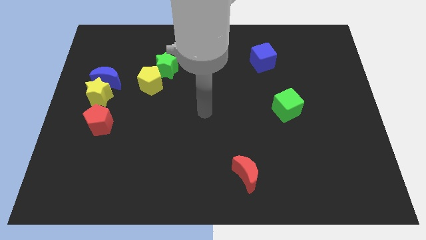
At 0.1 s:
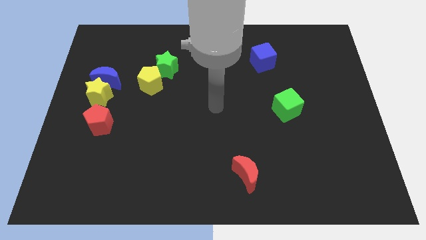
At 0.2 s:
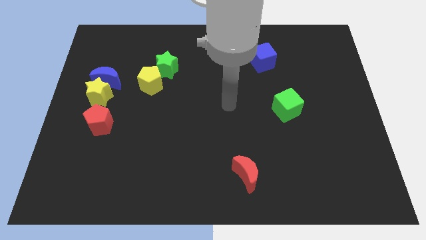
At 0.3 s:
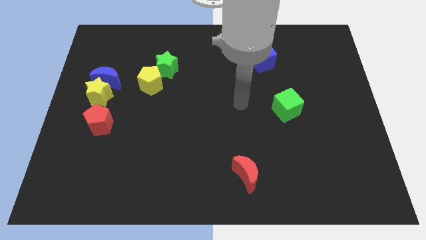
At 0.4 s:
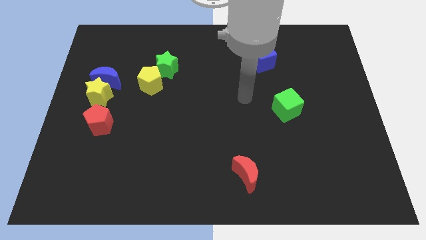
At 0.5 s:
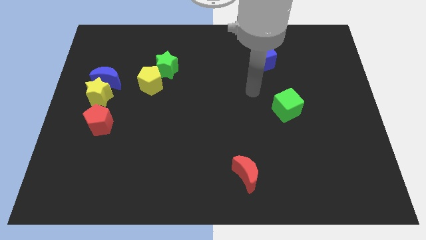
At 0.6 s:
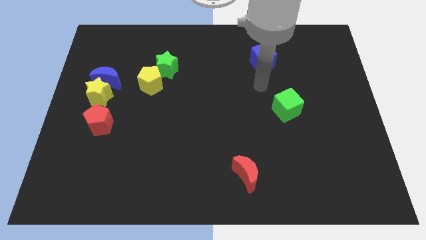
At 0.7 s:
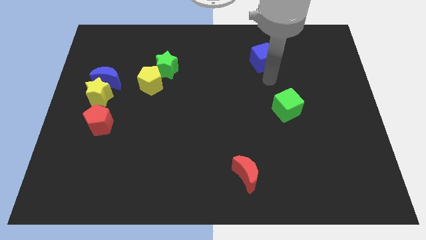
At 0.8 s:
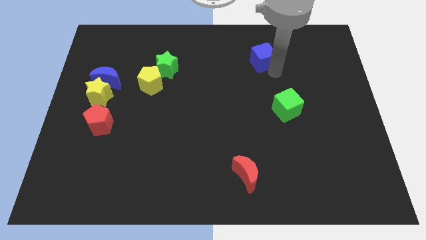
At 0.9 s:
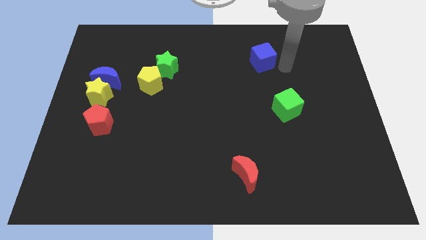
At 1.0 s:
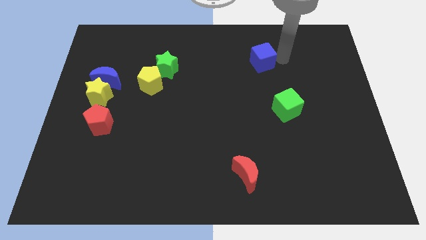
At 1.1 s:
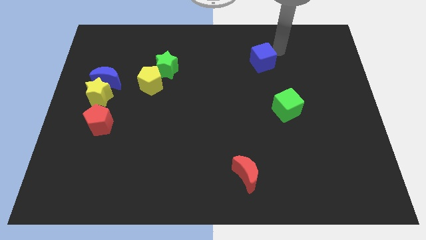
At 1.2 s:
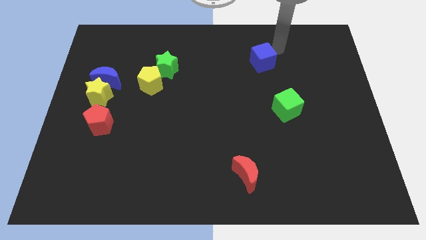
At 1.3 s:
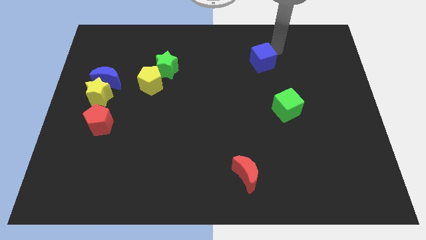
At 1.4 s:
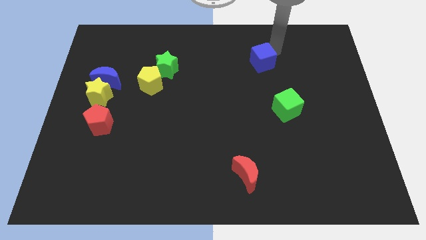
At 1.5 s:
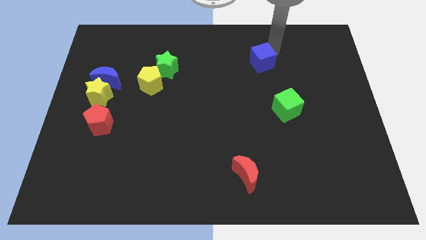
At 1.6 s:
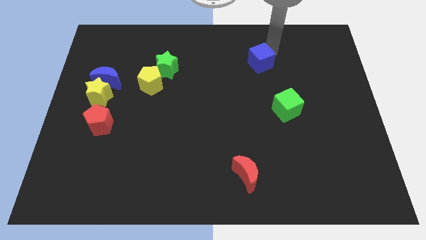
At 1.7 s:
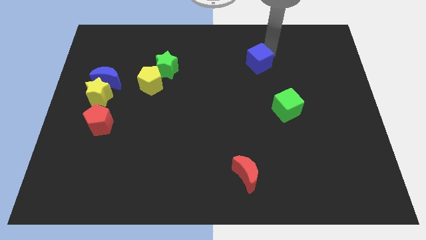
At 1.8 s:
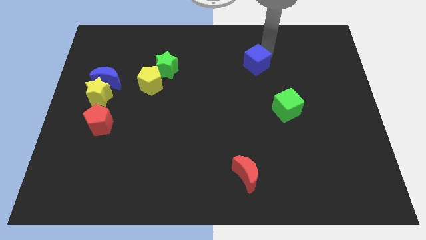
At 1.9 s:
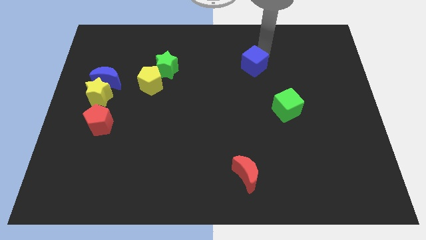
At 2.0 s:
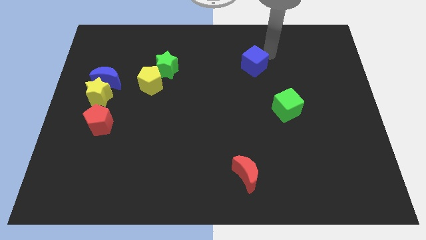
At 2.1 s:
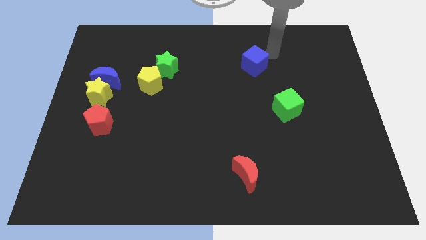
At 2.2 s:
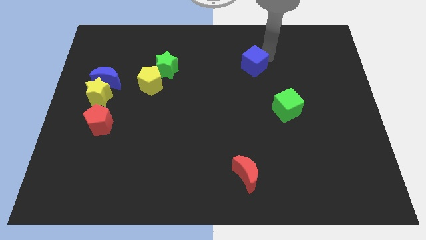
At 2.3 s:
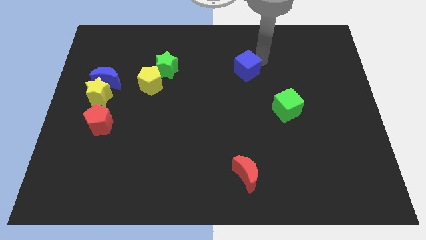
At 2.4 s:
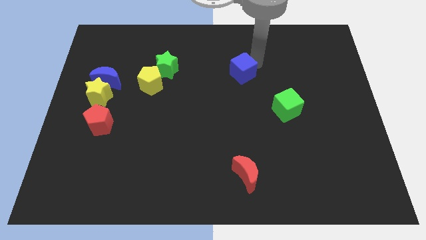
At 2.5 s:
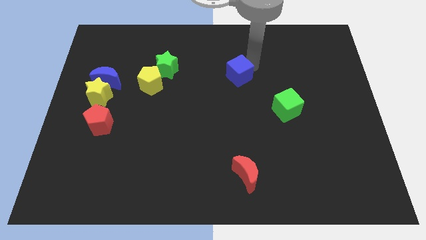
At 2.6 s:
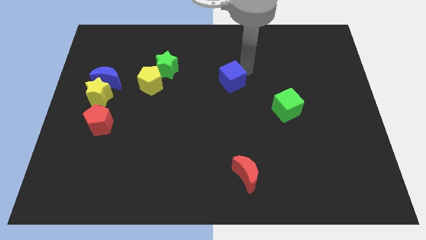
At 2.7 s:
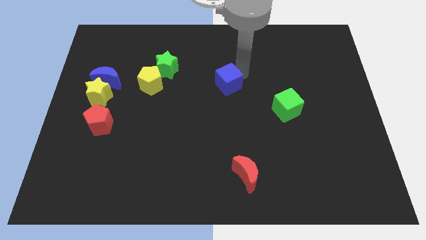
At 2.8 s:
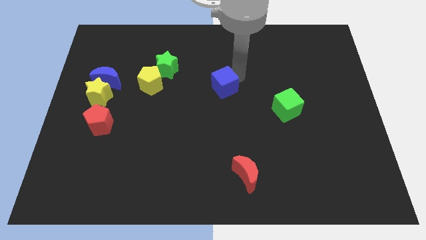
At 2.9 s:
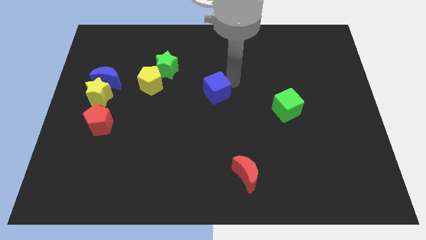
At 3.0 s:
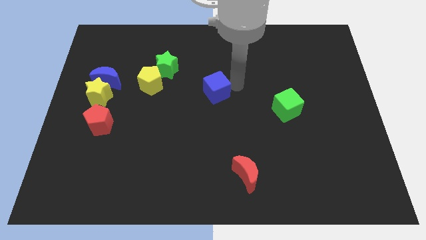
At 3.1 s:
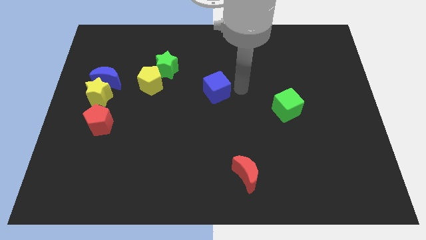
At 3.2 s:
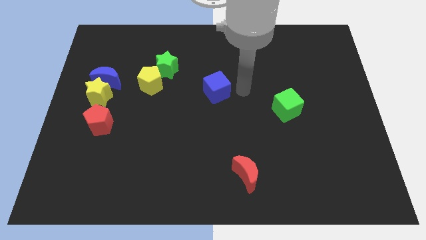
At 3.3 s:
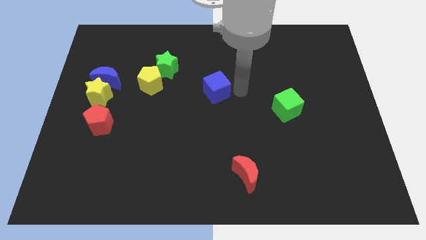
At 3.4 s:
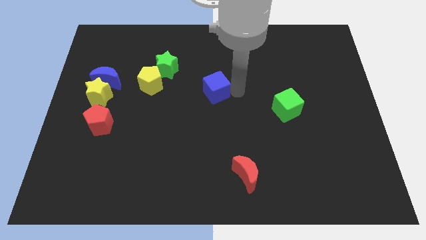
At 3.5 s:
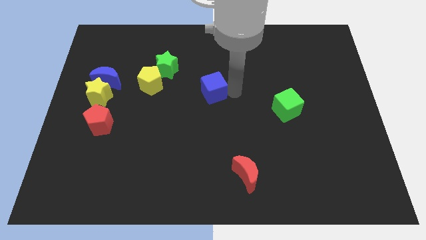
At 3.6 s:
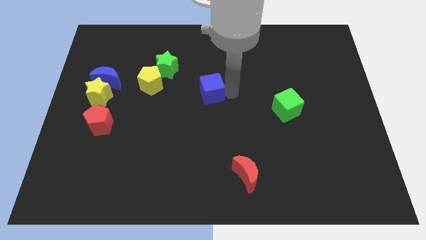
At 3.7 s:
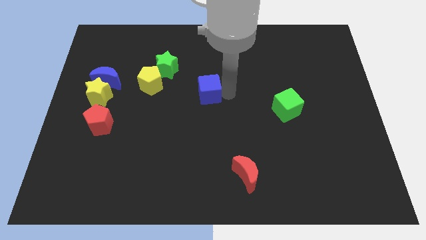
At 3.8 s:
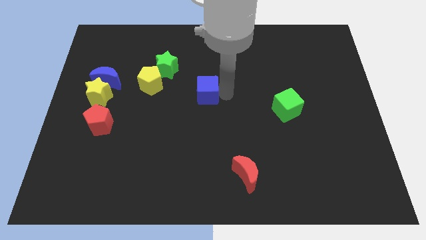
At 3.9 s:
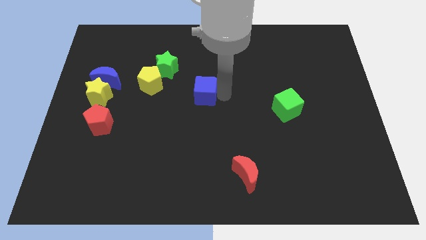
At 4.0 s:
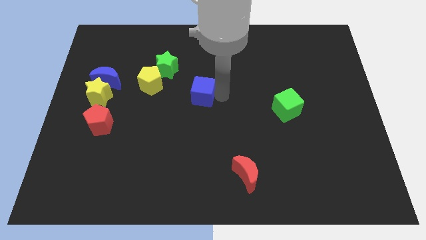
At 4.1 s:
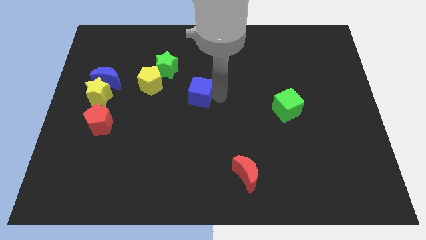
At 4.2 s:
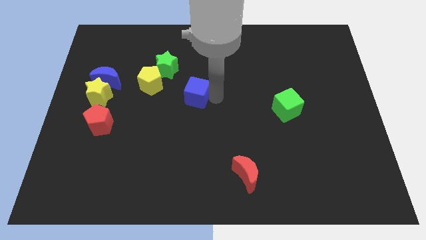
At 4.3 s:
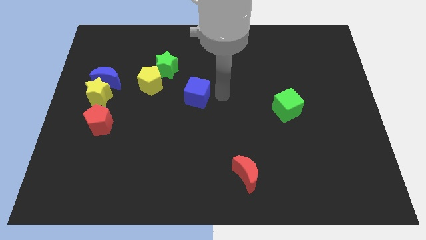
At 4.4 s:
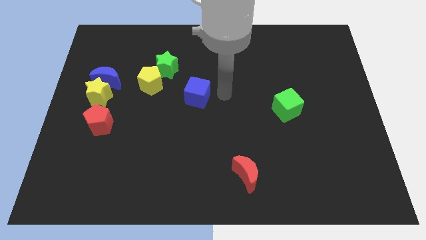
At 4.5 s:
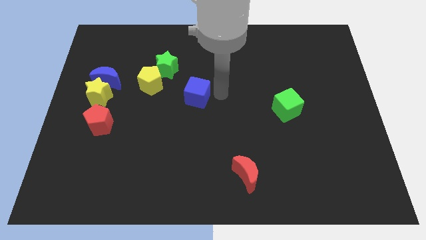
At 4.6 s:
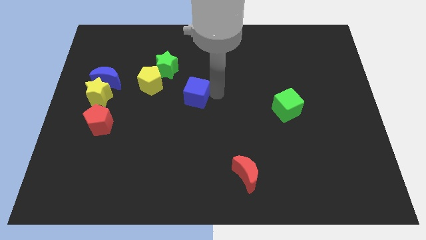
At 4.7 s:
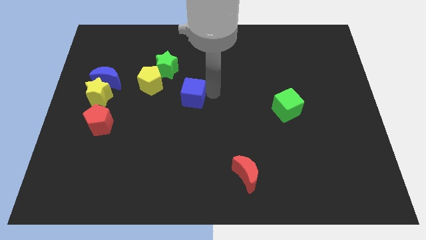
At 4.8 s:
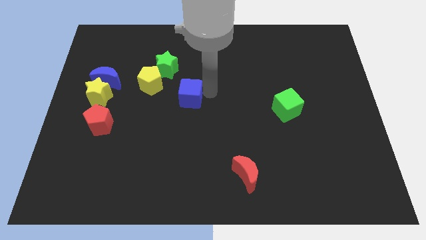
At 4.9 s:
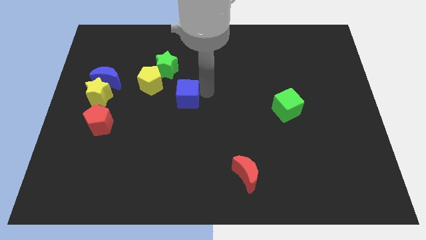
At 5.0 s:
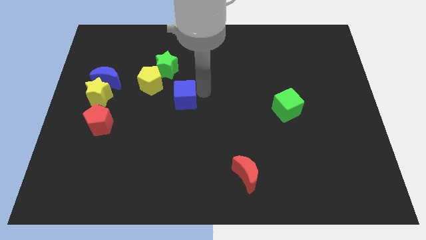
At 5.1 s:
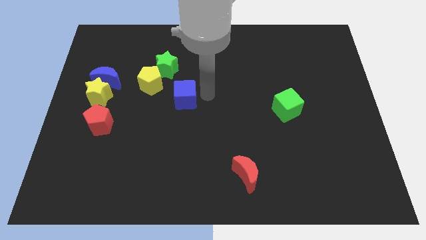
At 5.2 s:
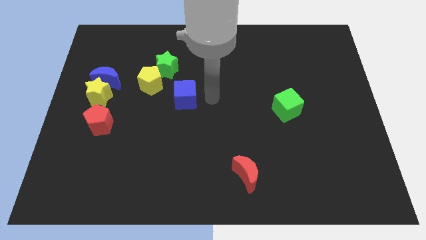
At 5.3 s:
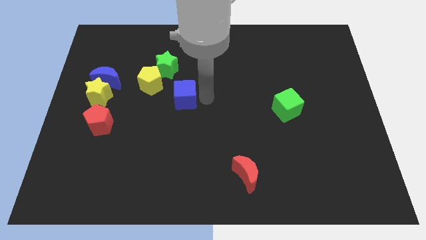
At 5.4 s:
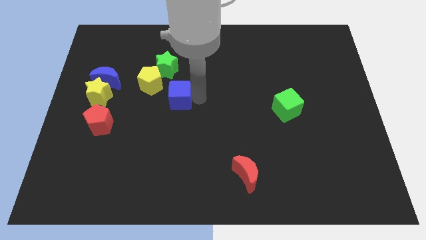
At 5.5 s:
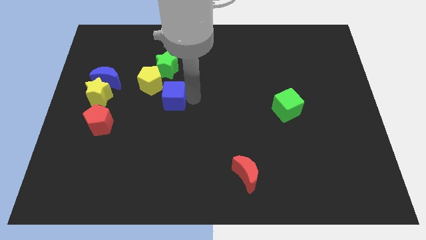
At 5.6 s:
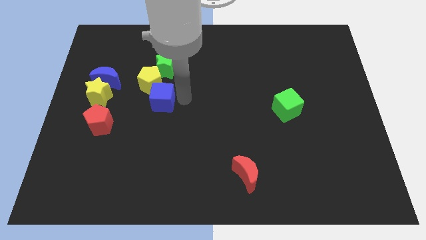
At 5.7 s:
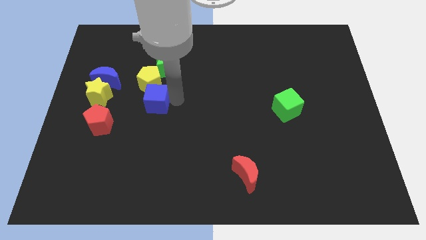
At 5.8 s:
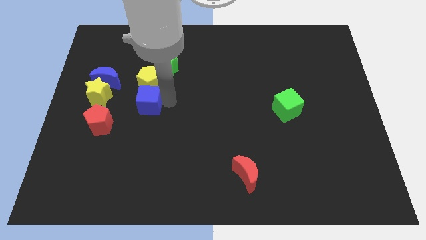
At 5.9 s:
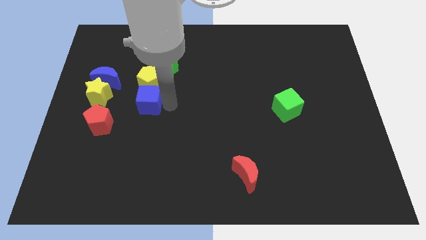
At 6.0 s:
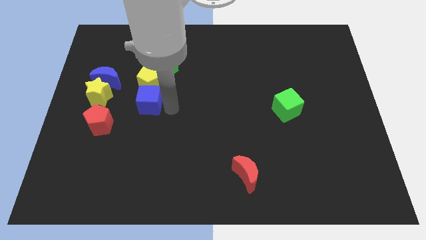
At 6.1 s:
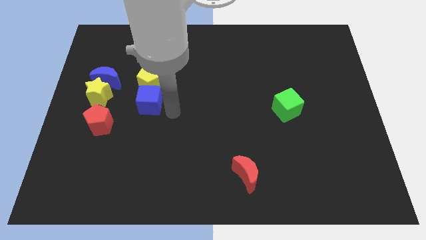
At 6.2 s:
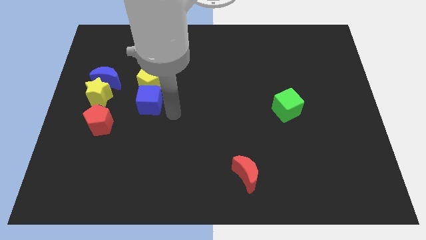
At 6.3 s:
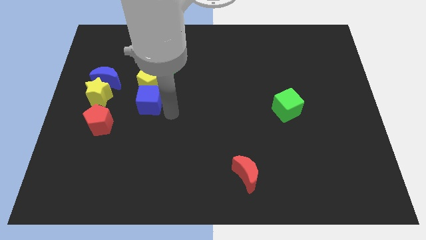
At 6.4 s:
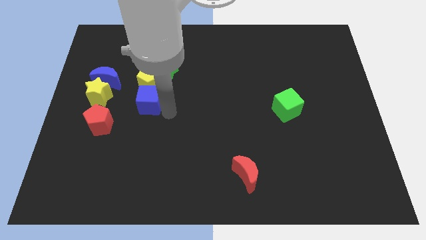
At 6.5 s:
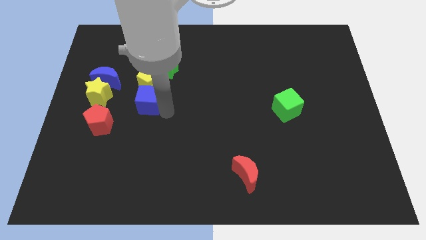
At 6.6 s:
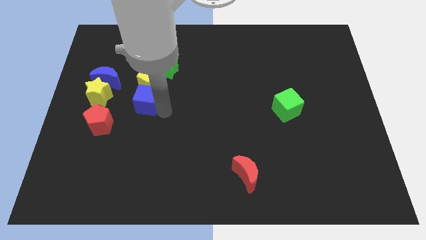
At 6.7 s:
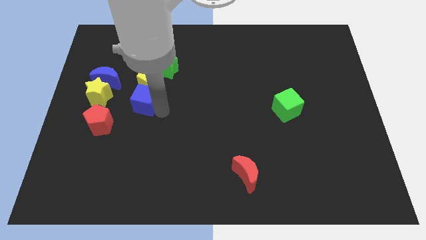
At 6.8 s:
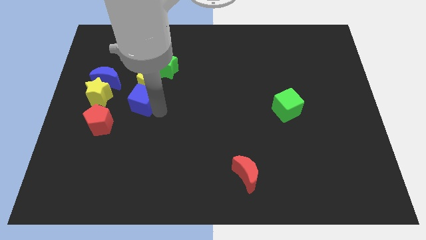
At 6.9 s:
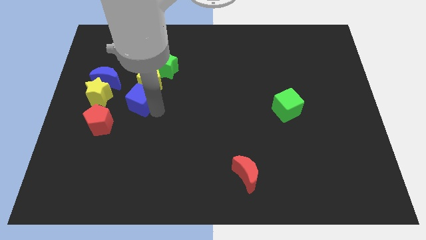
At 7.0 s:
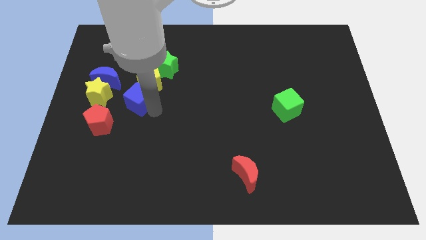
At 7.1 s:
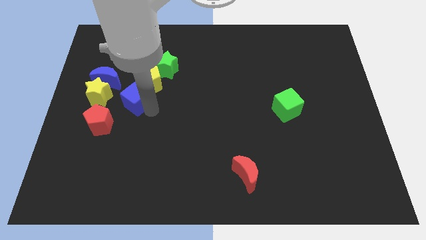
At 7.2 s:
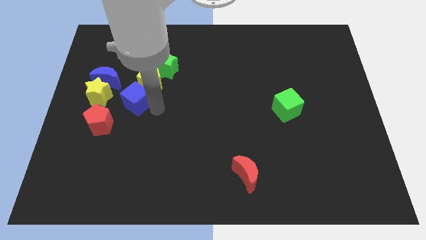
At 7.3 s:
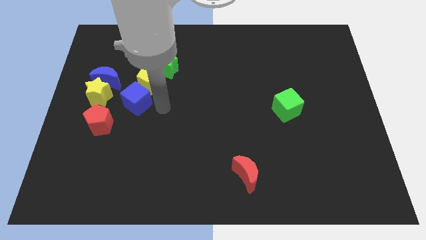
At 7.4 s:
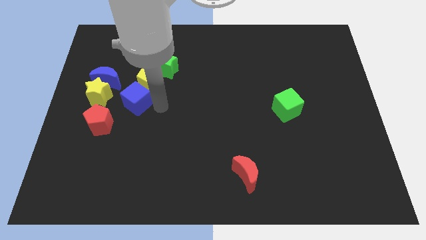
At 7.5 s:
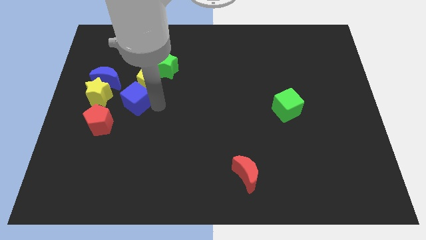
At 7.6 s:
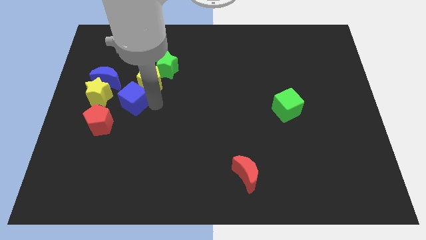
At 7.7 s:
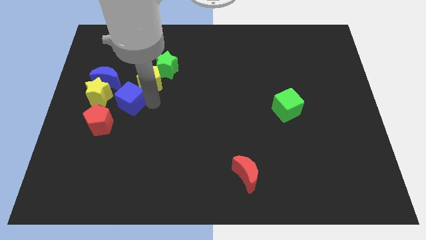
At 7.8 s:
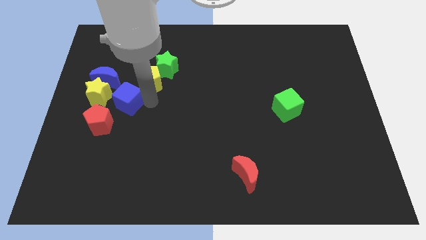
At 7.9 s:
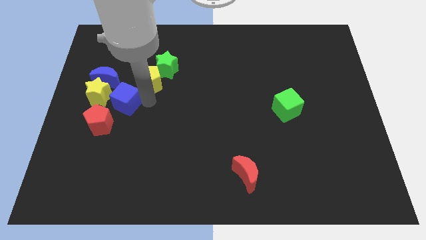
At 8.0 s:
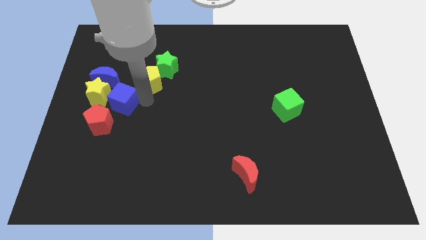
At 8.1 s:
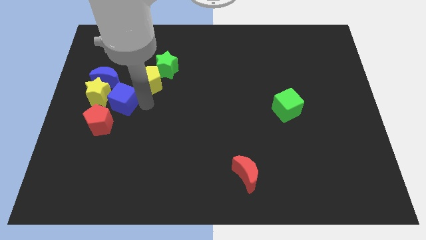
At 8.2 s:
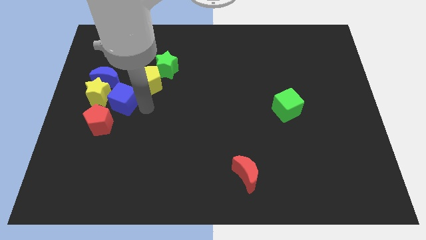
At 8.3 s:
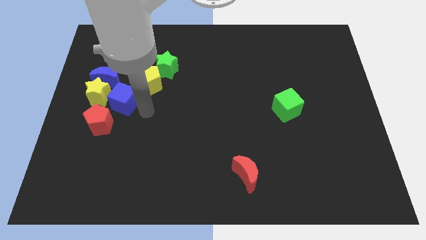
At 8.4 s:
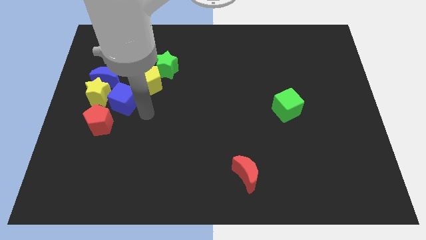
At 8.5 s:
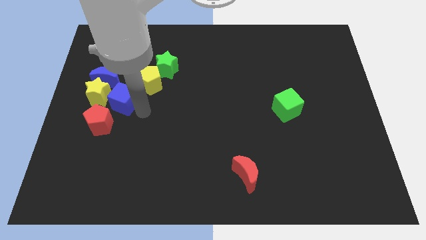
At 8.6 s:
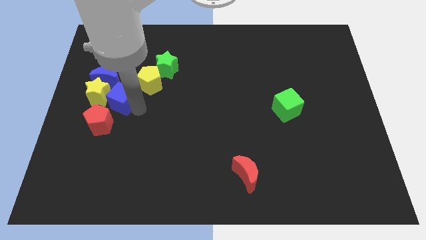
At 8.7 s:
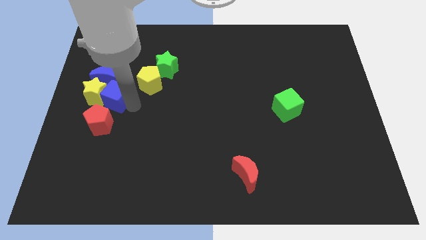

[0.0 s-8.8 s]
move the blue cube to the yellow star
